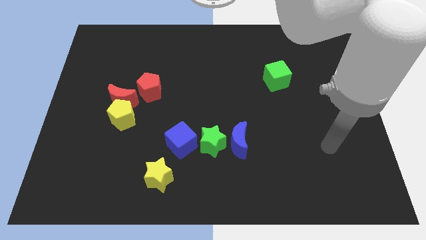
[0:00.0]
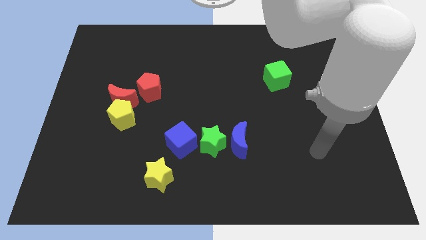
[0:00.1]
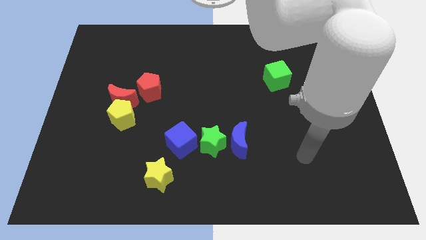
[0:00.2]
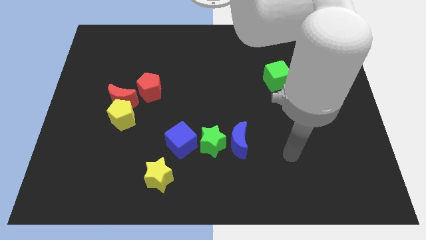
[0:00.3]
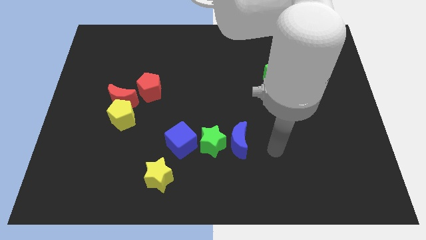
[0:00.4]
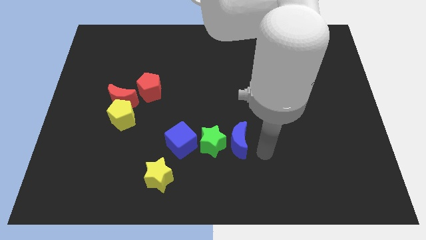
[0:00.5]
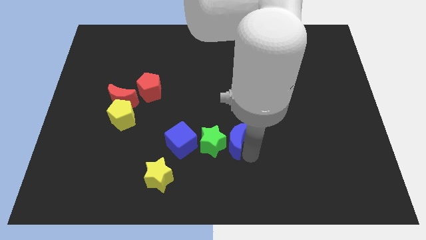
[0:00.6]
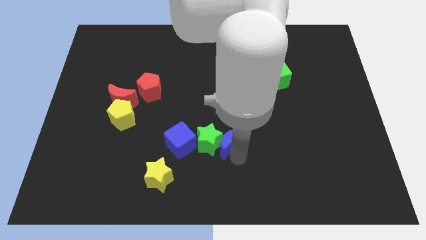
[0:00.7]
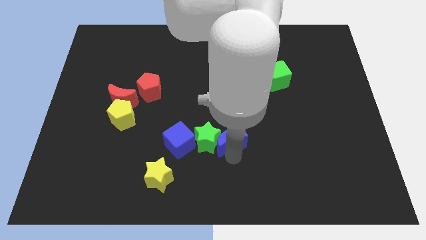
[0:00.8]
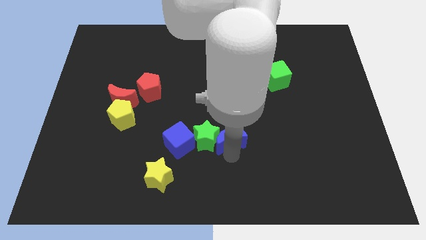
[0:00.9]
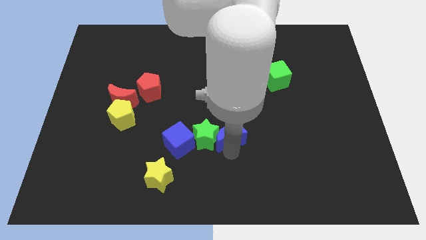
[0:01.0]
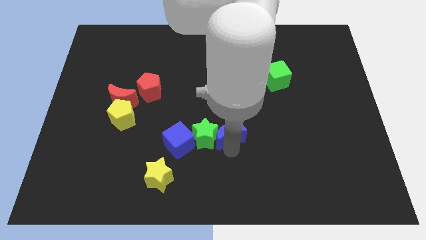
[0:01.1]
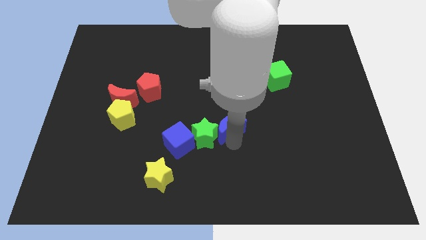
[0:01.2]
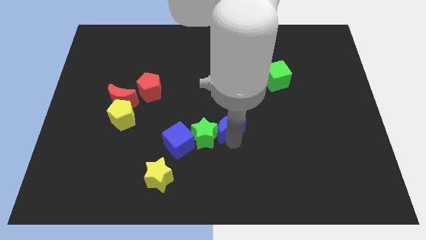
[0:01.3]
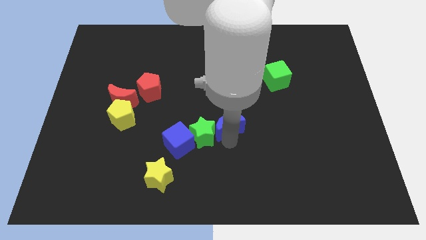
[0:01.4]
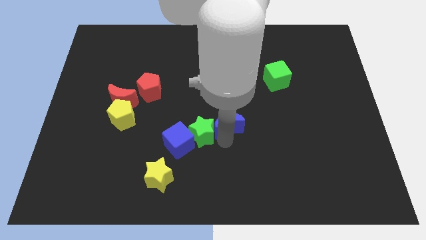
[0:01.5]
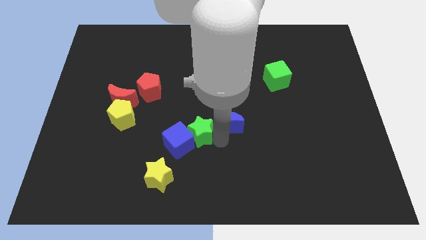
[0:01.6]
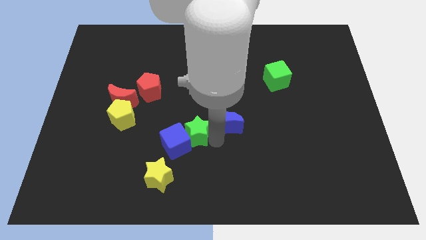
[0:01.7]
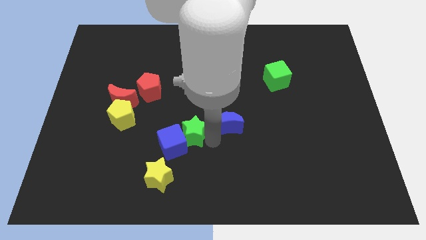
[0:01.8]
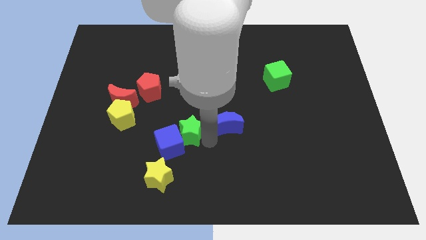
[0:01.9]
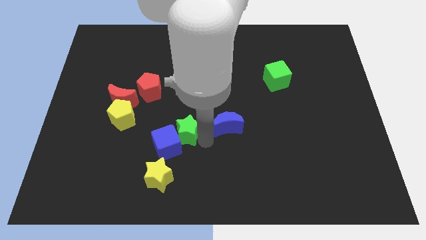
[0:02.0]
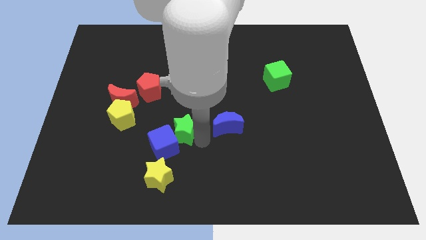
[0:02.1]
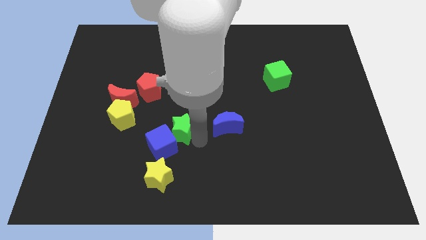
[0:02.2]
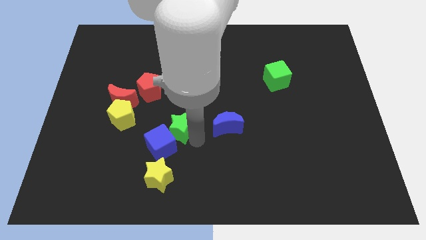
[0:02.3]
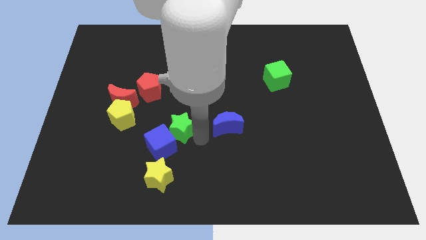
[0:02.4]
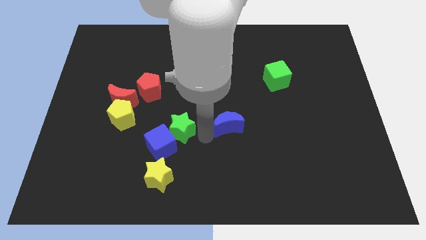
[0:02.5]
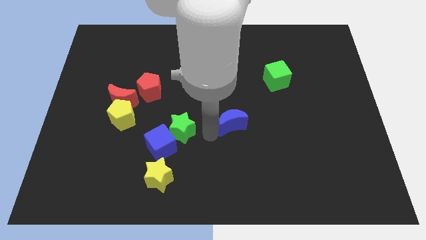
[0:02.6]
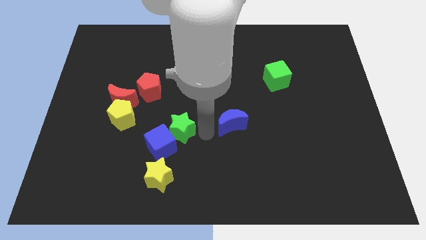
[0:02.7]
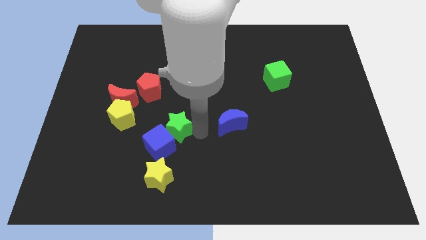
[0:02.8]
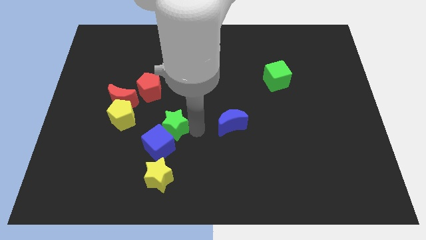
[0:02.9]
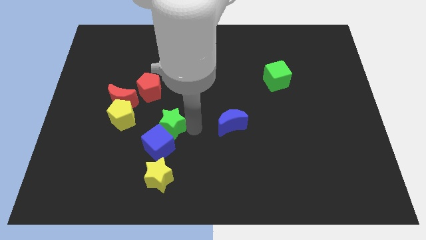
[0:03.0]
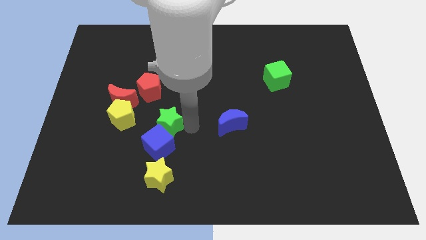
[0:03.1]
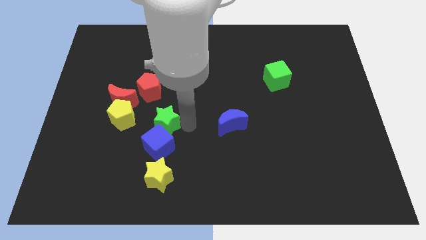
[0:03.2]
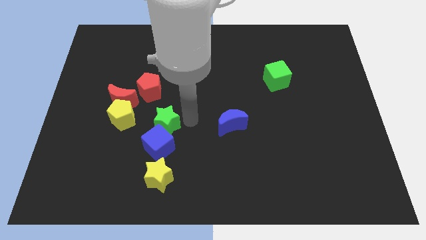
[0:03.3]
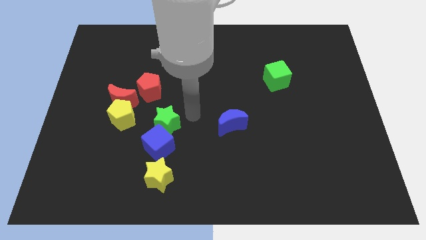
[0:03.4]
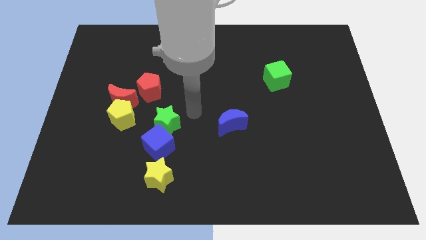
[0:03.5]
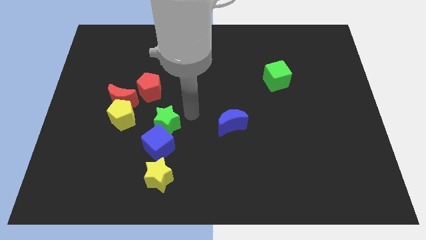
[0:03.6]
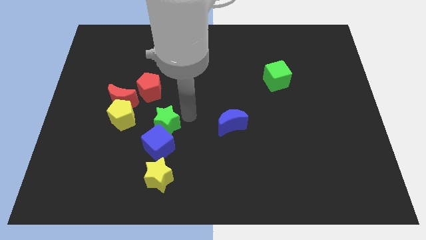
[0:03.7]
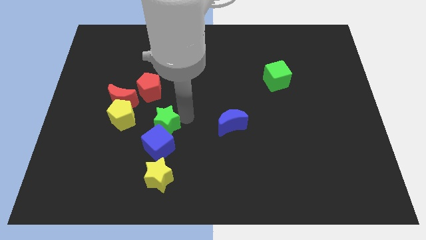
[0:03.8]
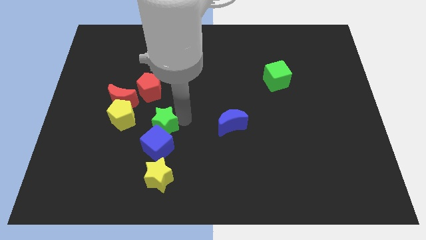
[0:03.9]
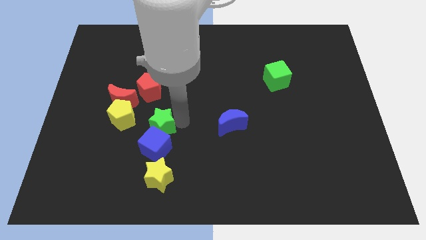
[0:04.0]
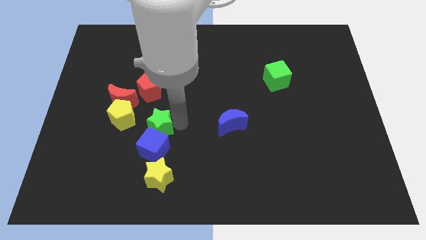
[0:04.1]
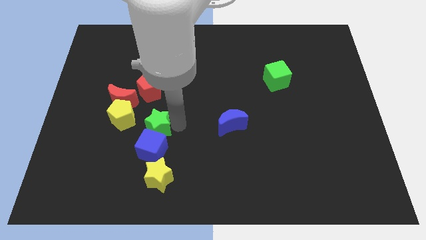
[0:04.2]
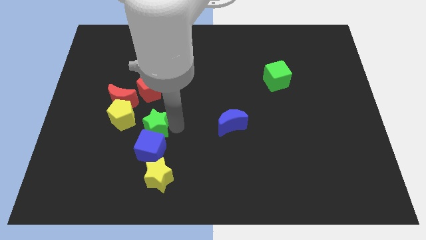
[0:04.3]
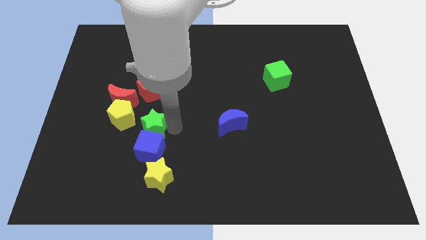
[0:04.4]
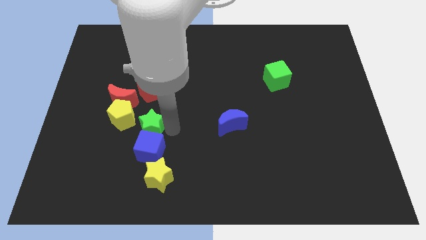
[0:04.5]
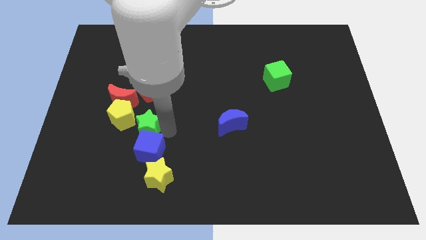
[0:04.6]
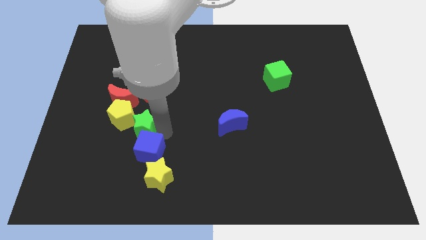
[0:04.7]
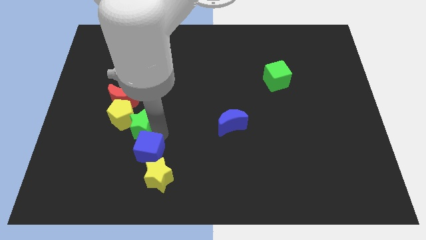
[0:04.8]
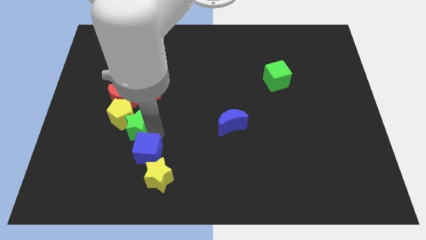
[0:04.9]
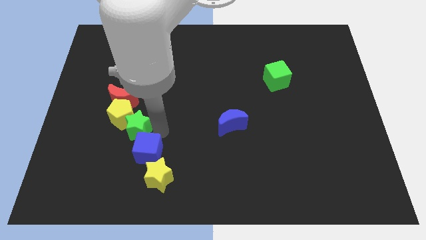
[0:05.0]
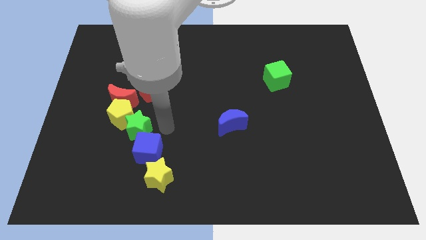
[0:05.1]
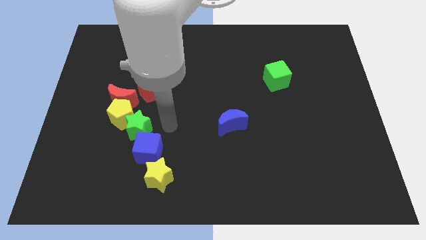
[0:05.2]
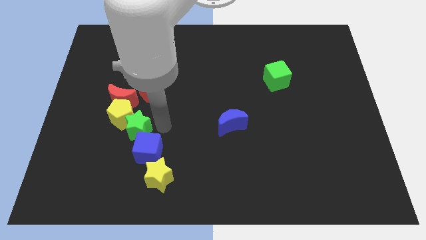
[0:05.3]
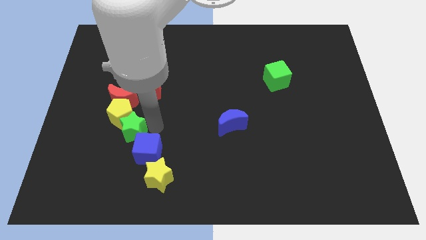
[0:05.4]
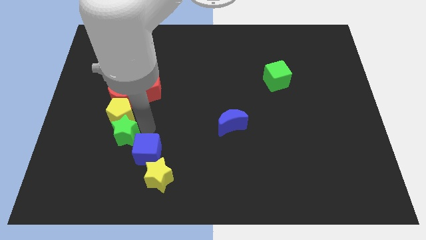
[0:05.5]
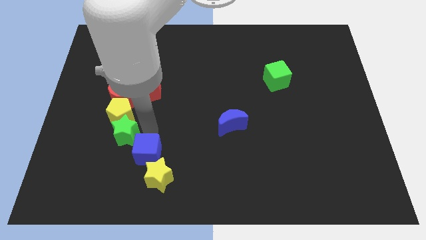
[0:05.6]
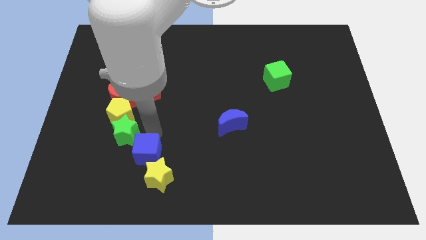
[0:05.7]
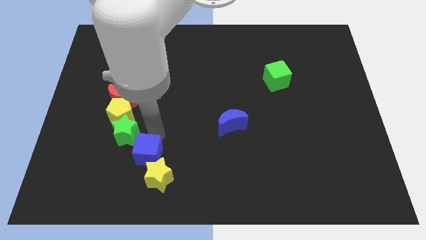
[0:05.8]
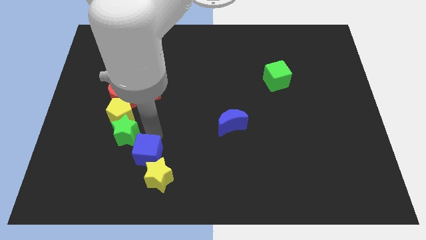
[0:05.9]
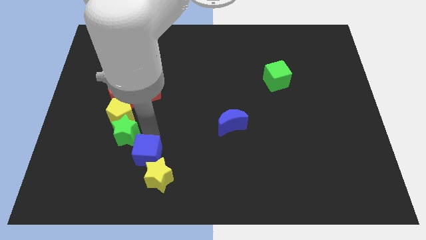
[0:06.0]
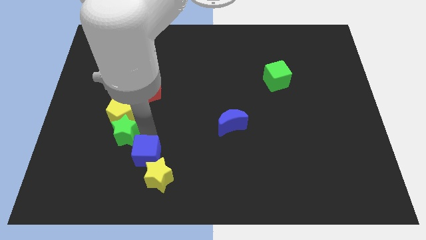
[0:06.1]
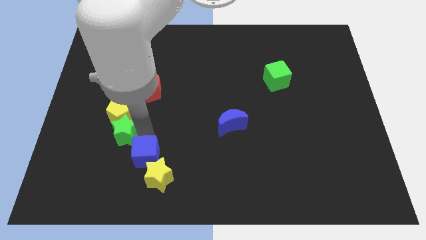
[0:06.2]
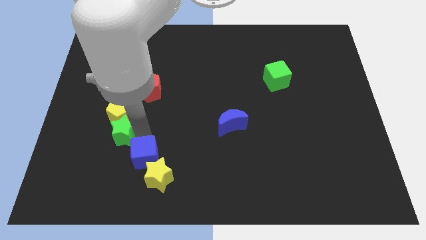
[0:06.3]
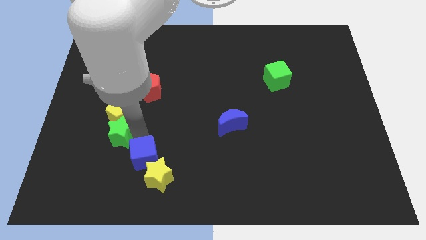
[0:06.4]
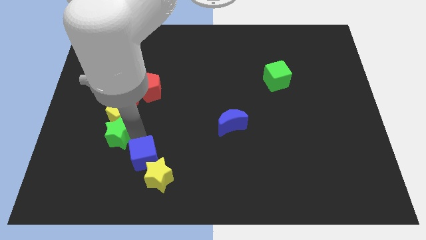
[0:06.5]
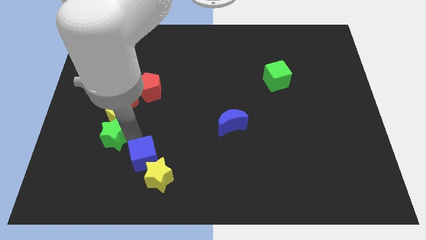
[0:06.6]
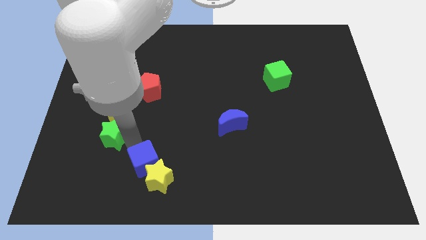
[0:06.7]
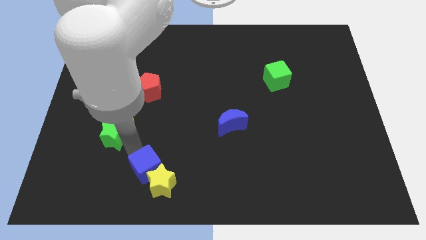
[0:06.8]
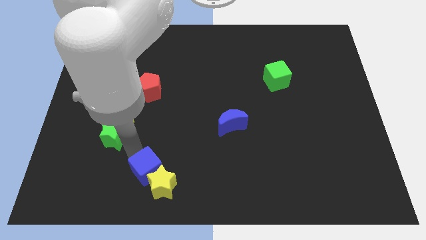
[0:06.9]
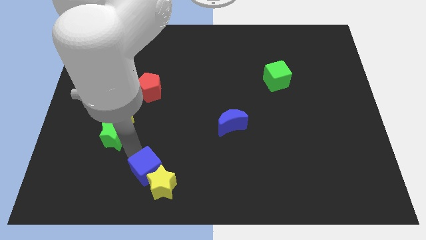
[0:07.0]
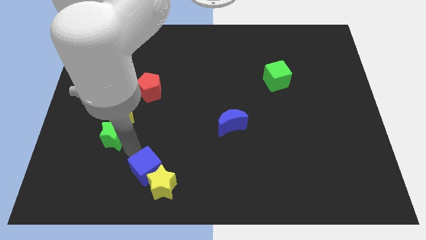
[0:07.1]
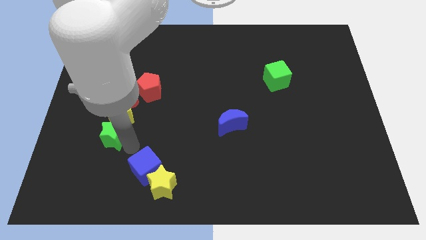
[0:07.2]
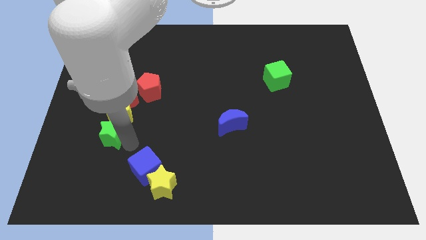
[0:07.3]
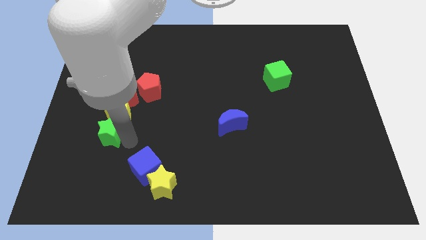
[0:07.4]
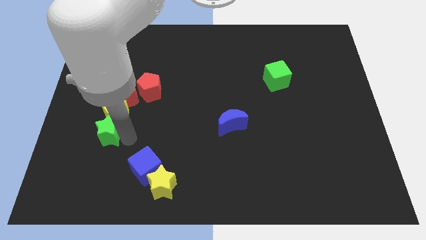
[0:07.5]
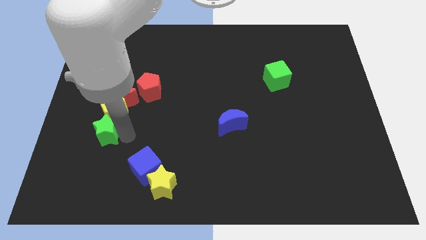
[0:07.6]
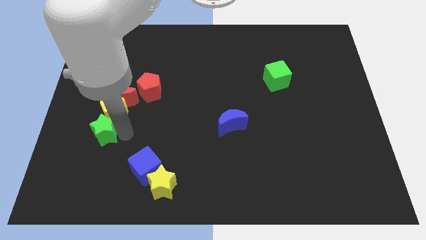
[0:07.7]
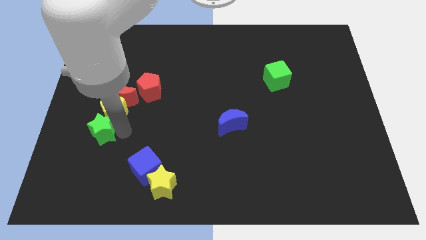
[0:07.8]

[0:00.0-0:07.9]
slide the green star to the bottom left of the red moon
